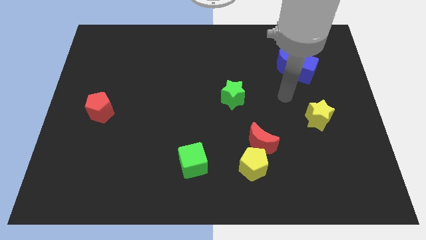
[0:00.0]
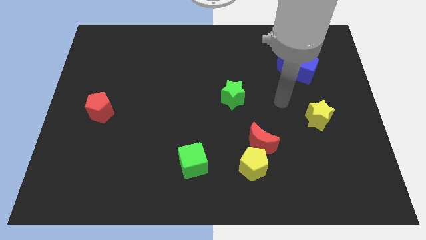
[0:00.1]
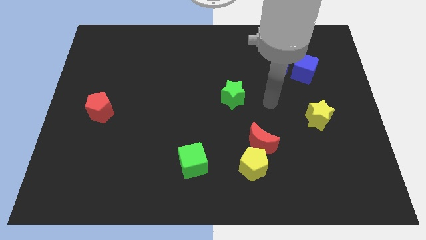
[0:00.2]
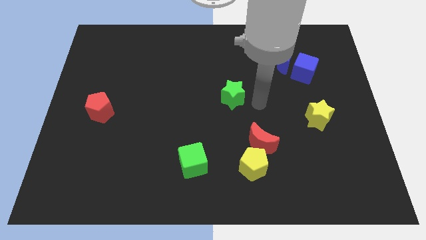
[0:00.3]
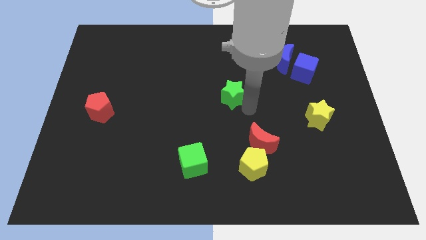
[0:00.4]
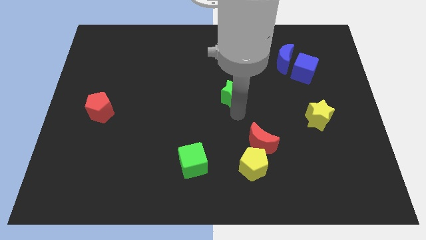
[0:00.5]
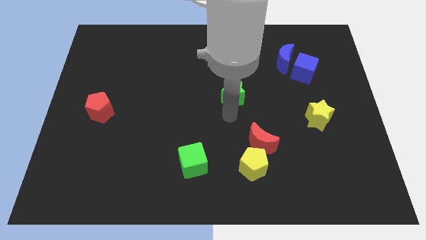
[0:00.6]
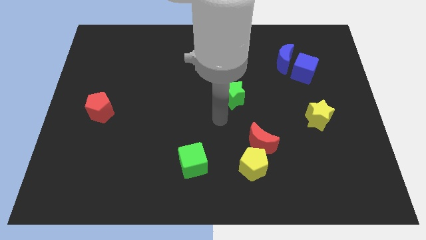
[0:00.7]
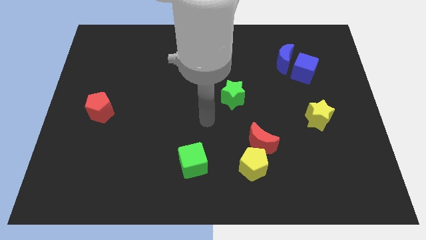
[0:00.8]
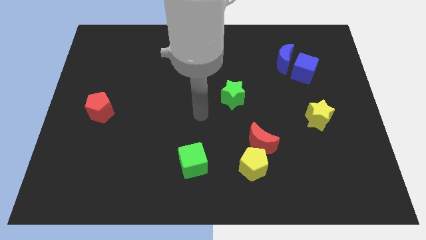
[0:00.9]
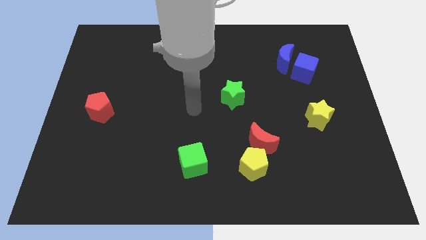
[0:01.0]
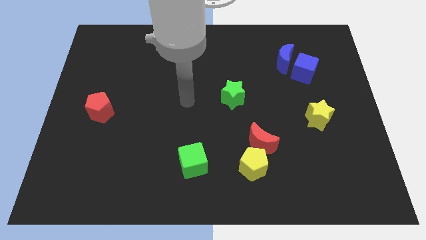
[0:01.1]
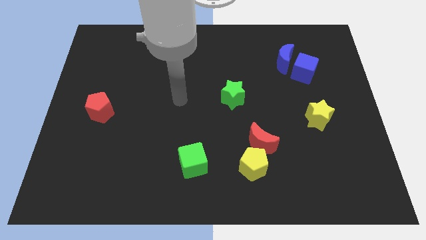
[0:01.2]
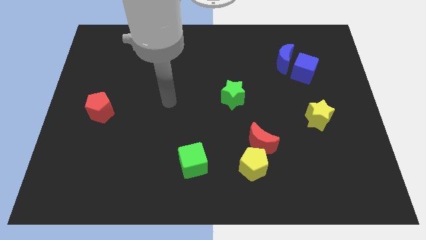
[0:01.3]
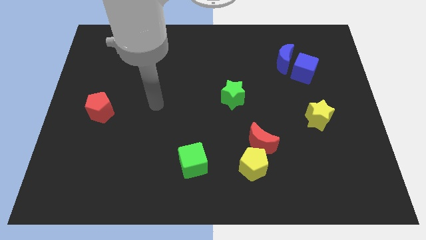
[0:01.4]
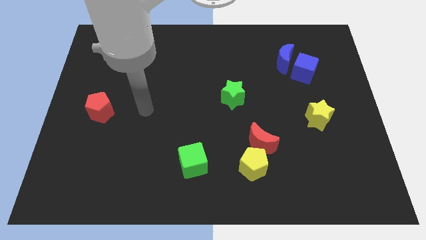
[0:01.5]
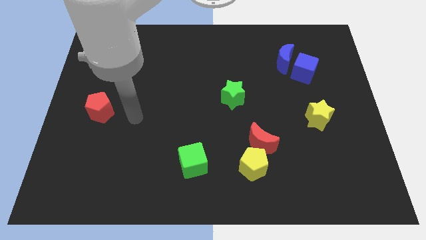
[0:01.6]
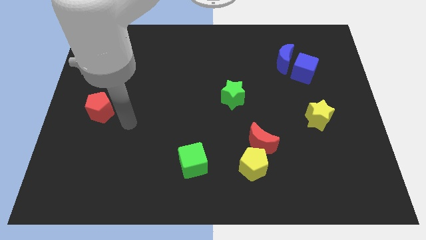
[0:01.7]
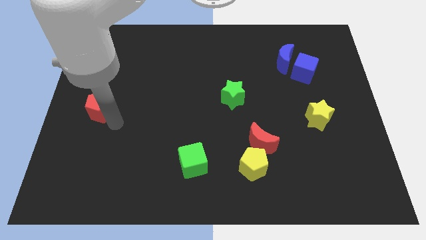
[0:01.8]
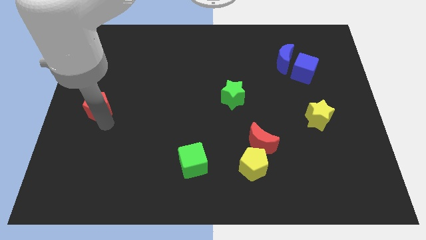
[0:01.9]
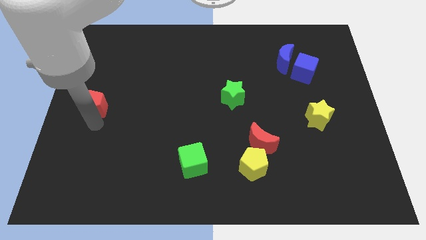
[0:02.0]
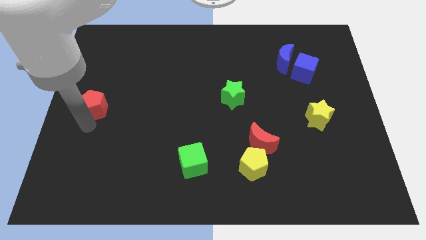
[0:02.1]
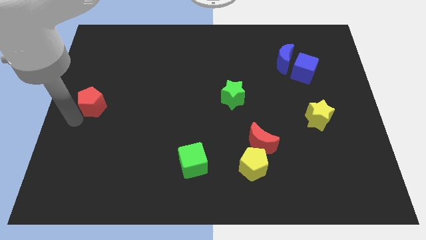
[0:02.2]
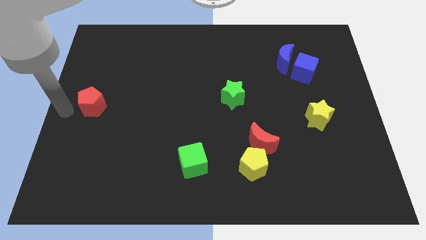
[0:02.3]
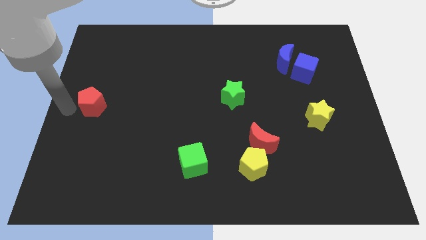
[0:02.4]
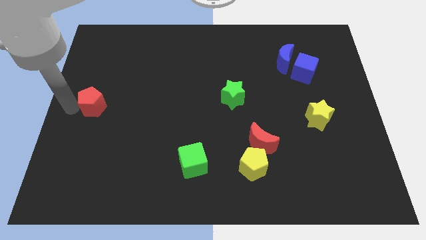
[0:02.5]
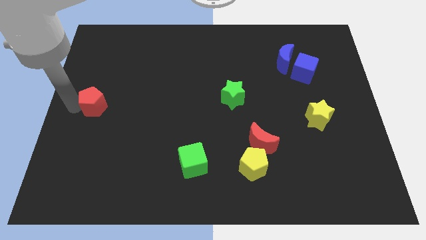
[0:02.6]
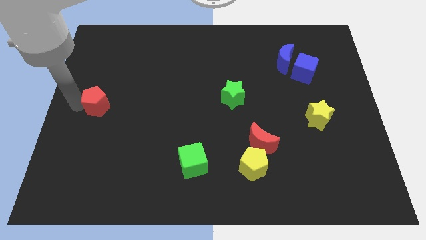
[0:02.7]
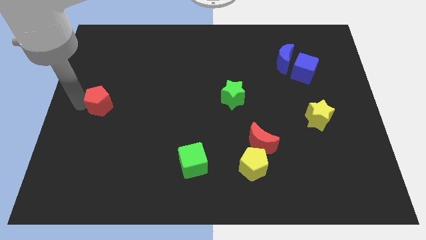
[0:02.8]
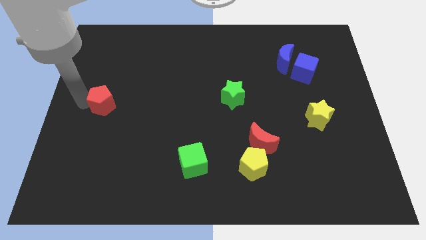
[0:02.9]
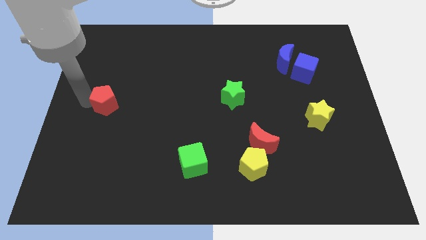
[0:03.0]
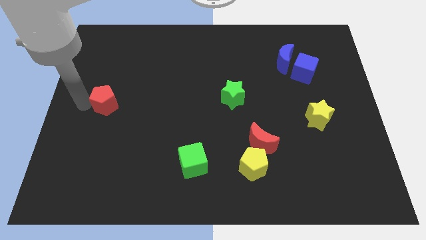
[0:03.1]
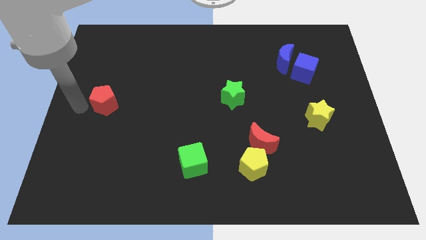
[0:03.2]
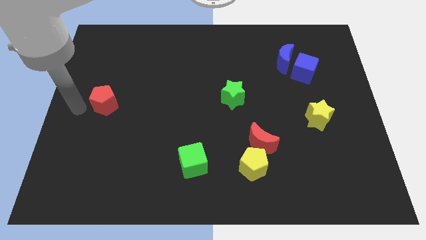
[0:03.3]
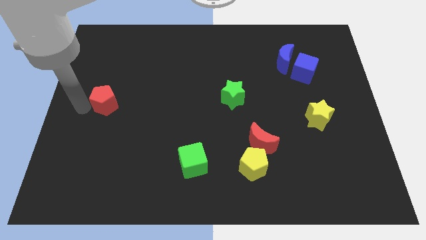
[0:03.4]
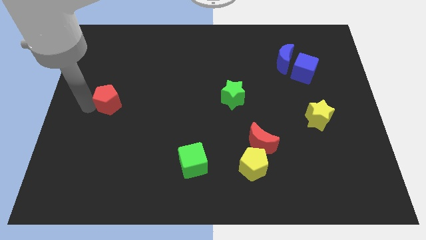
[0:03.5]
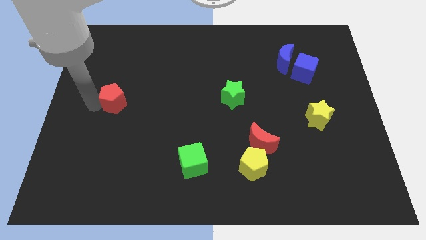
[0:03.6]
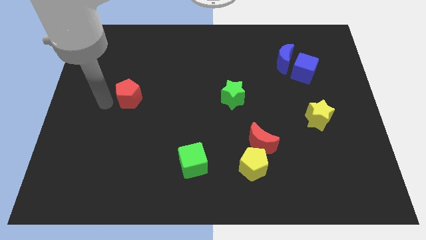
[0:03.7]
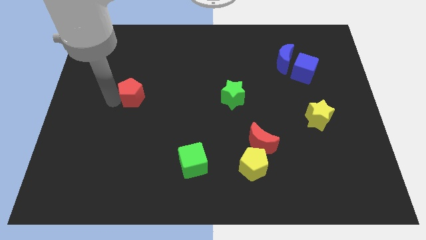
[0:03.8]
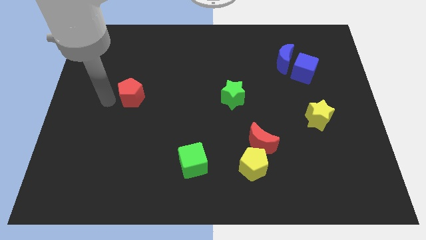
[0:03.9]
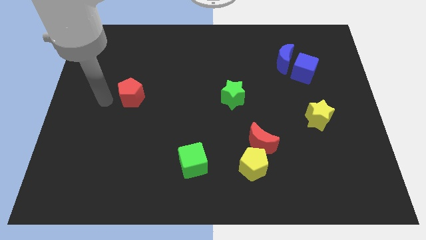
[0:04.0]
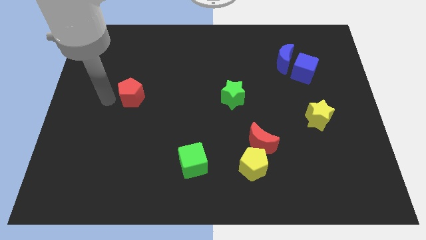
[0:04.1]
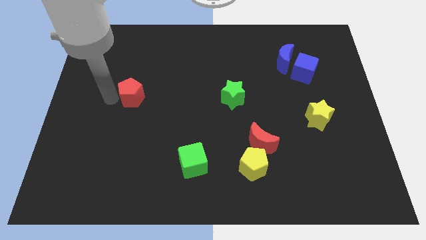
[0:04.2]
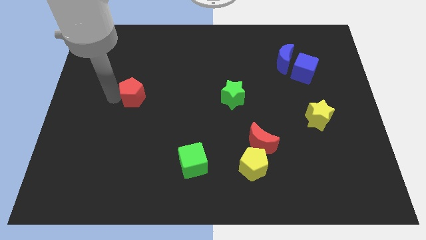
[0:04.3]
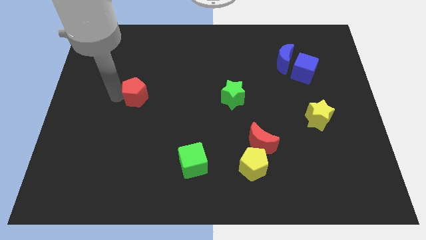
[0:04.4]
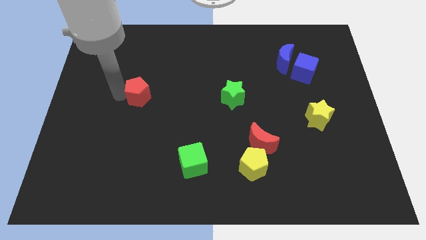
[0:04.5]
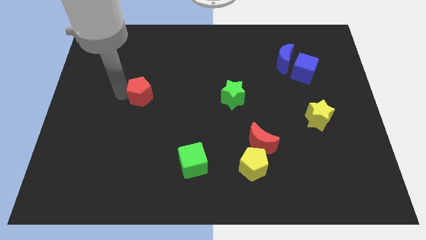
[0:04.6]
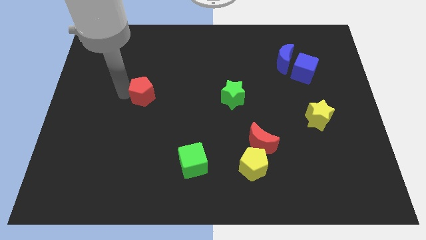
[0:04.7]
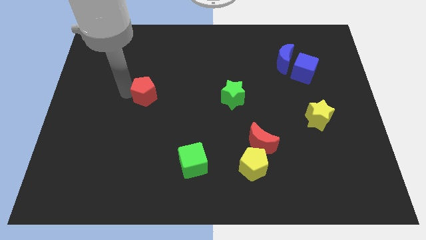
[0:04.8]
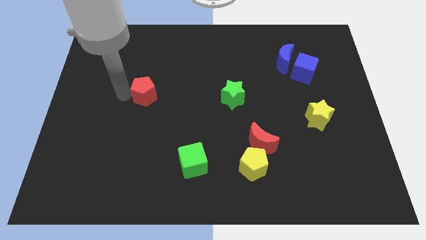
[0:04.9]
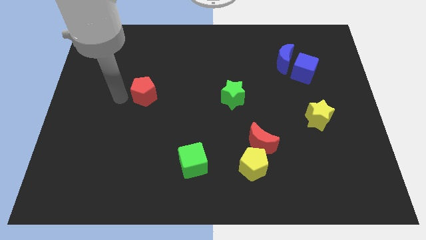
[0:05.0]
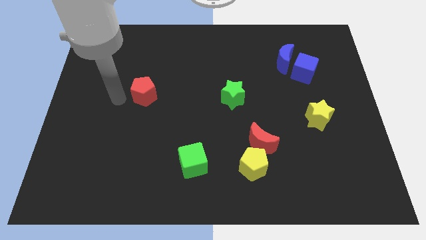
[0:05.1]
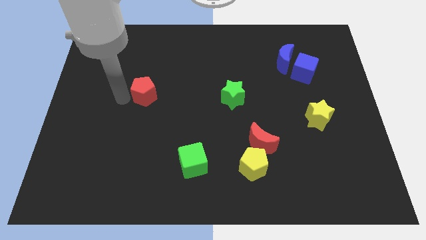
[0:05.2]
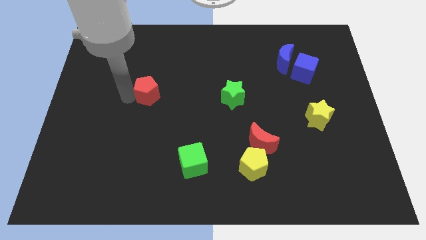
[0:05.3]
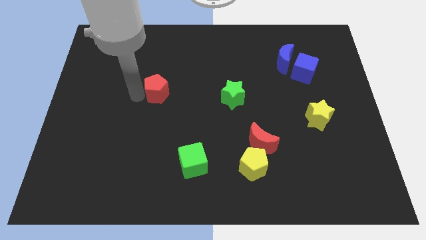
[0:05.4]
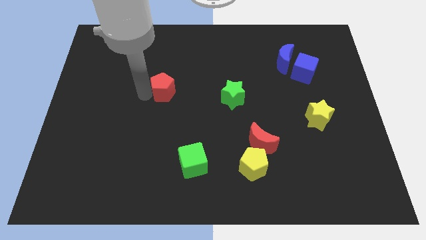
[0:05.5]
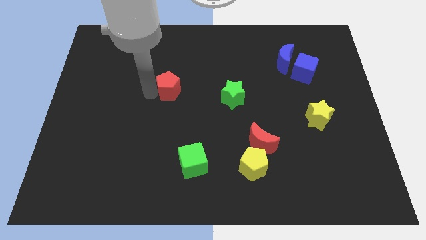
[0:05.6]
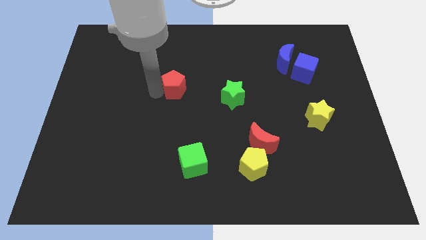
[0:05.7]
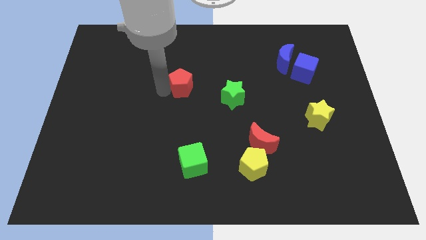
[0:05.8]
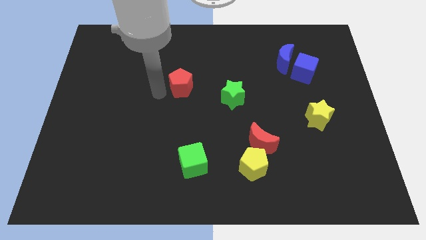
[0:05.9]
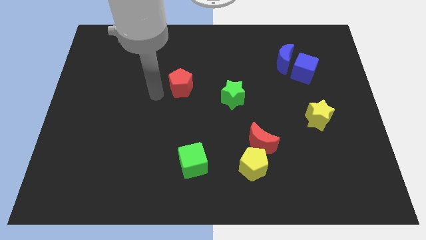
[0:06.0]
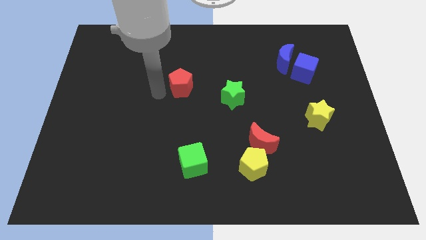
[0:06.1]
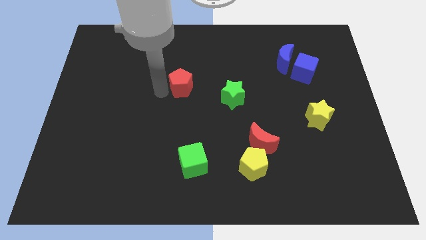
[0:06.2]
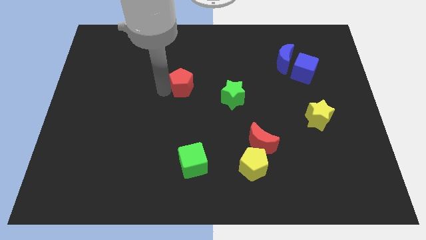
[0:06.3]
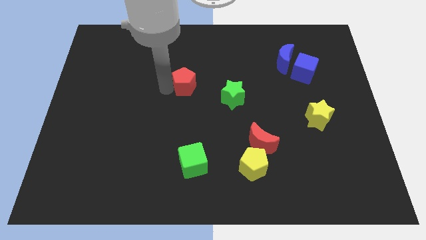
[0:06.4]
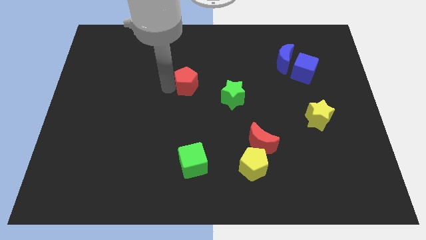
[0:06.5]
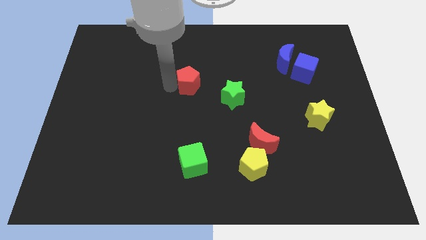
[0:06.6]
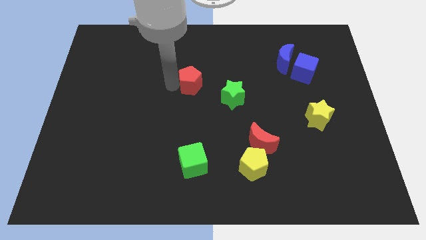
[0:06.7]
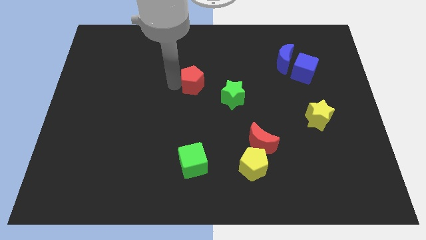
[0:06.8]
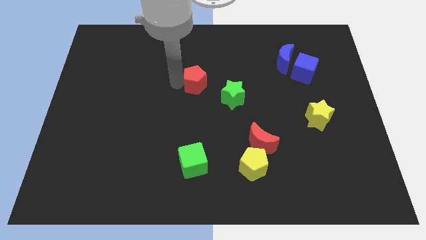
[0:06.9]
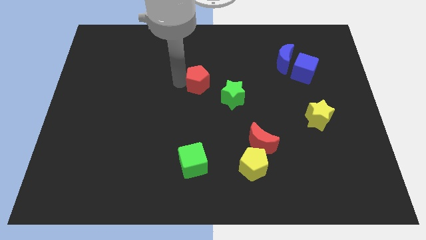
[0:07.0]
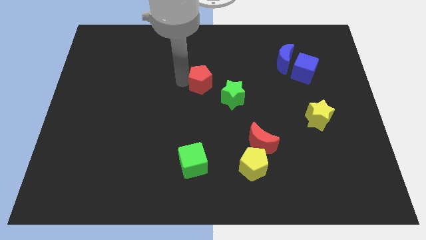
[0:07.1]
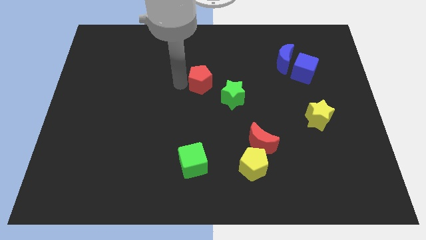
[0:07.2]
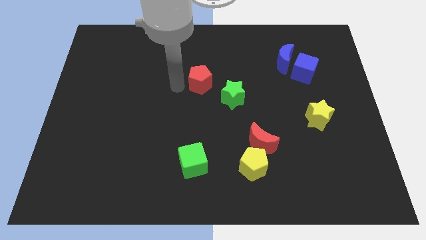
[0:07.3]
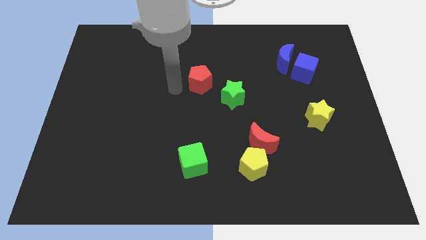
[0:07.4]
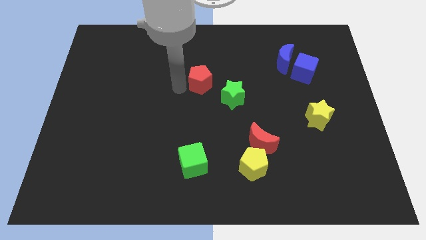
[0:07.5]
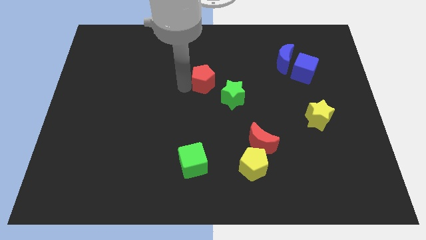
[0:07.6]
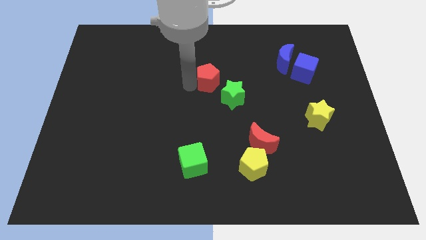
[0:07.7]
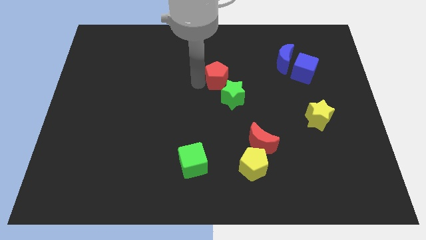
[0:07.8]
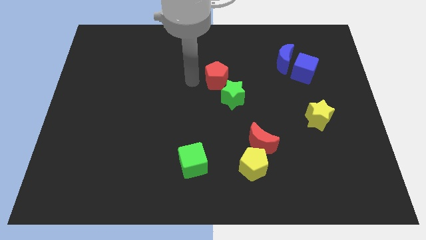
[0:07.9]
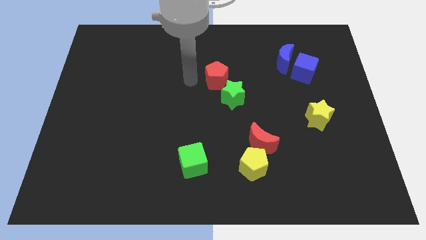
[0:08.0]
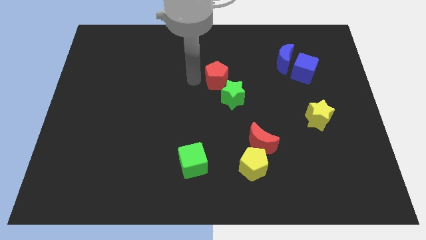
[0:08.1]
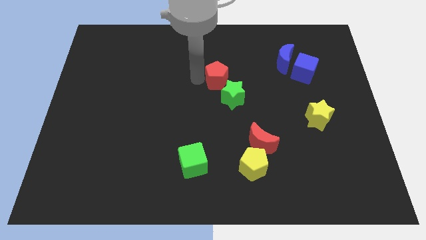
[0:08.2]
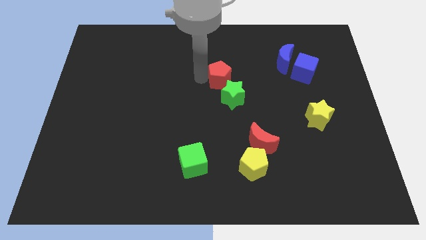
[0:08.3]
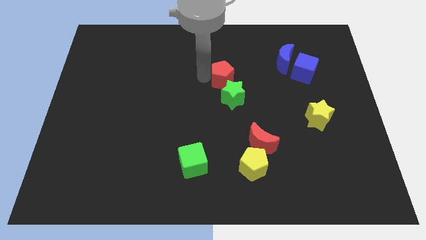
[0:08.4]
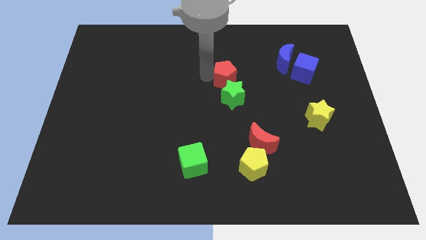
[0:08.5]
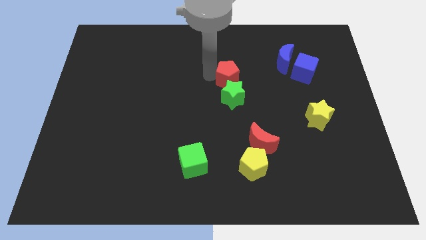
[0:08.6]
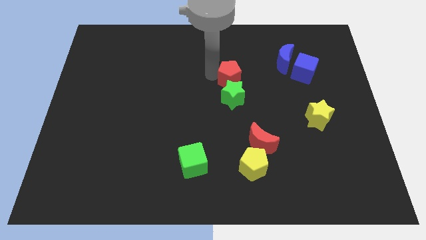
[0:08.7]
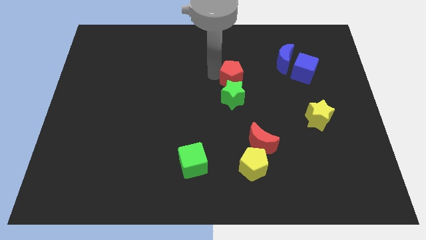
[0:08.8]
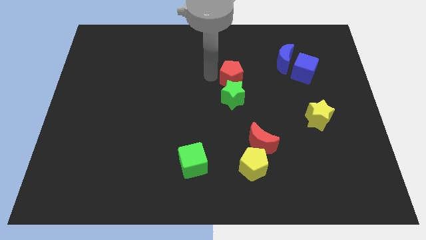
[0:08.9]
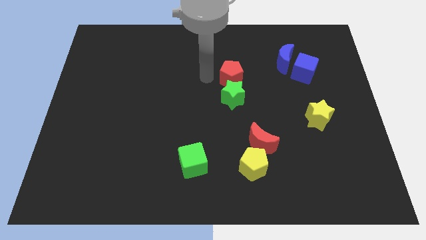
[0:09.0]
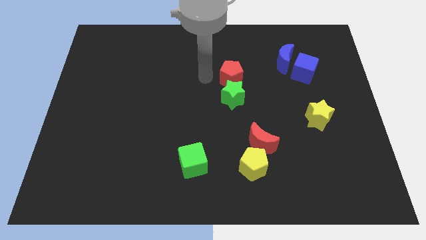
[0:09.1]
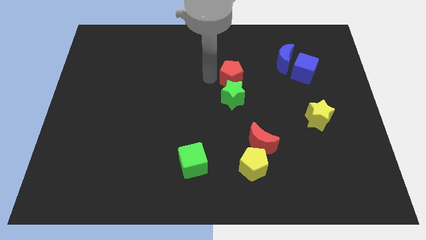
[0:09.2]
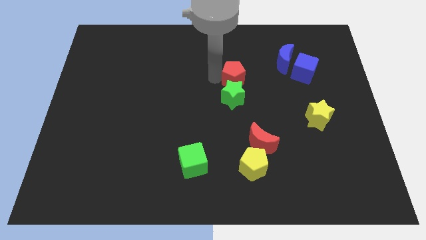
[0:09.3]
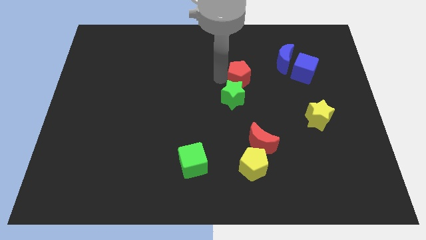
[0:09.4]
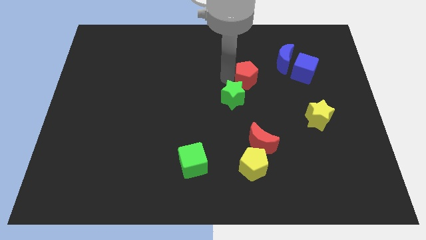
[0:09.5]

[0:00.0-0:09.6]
move the red pentagon diagonally down and to the left of the blue moon
